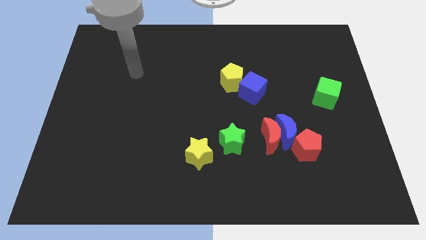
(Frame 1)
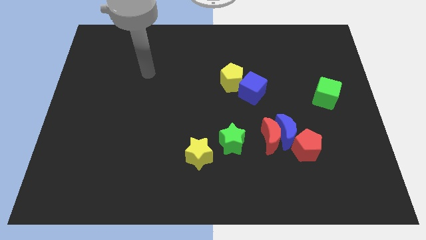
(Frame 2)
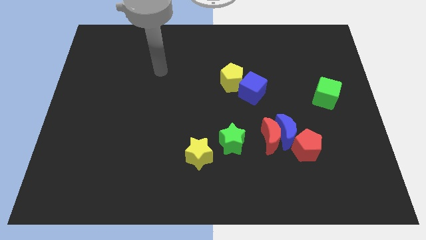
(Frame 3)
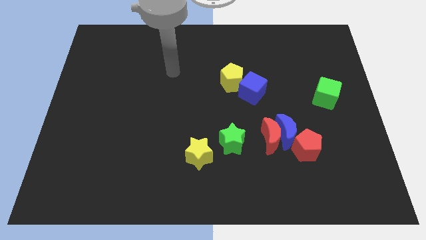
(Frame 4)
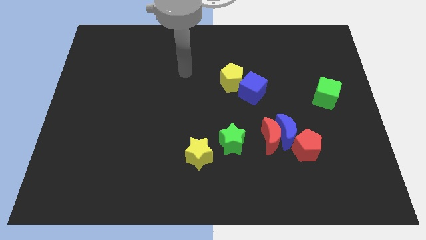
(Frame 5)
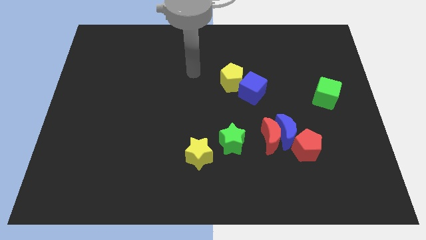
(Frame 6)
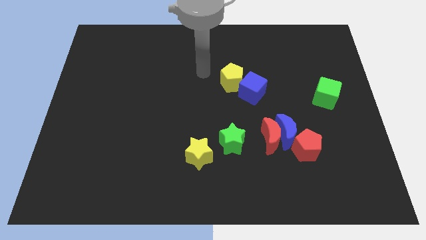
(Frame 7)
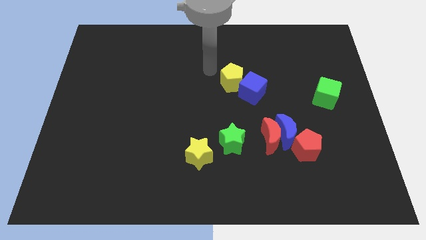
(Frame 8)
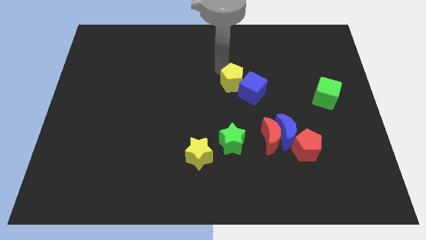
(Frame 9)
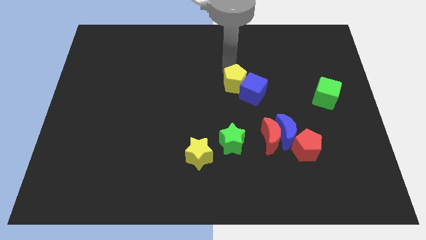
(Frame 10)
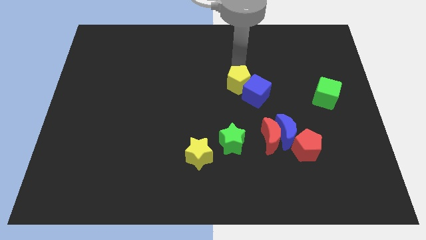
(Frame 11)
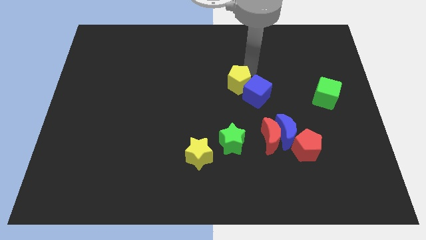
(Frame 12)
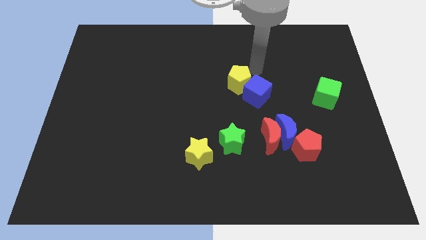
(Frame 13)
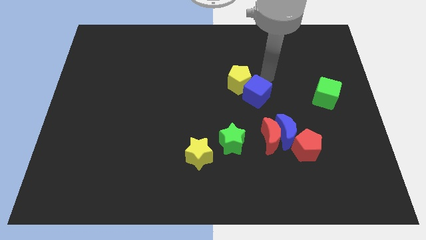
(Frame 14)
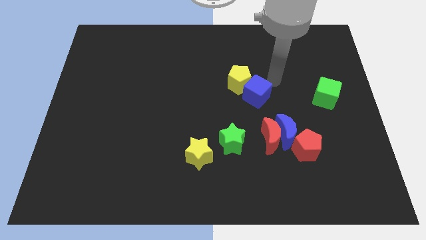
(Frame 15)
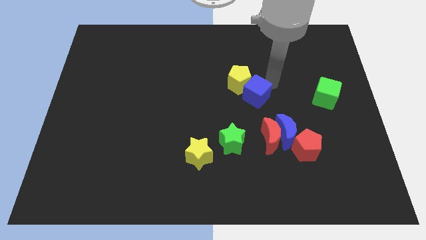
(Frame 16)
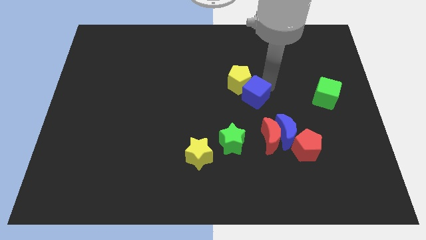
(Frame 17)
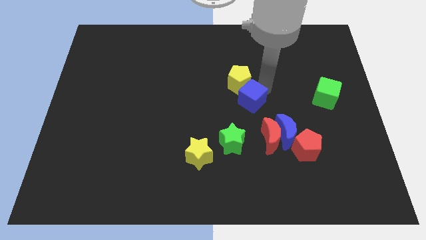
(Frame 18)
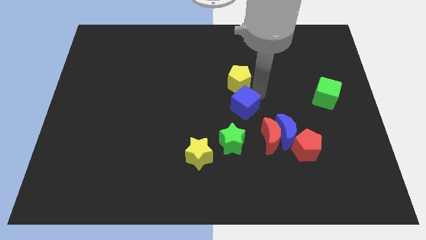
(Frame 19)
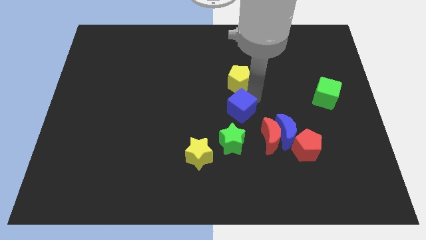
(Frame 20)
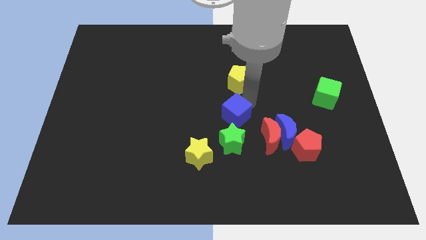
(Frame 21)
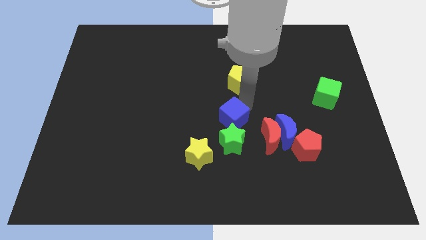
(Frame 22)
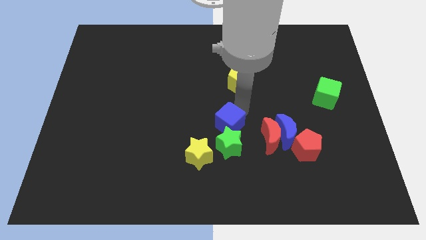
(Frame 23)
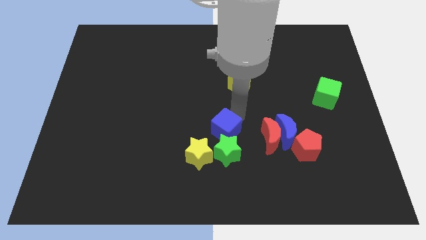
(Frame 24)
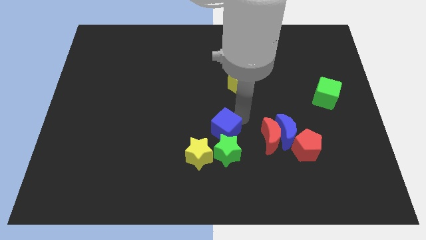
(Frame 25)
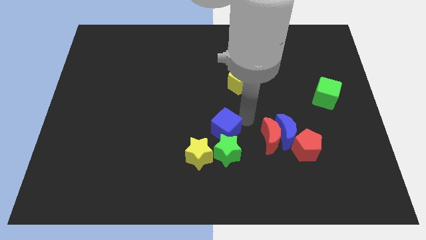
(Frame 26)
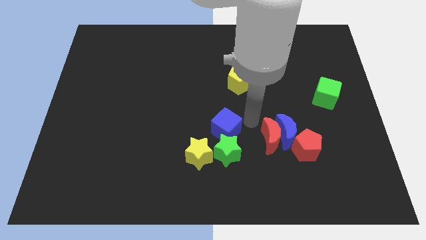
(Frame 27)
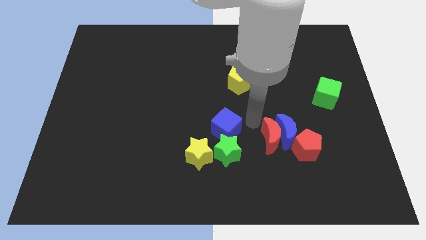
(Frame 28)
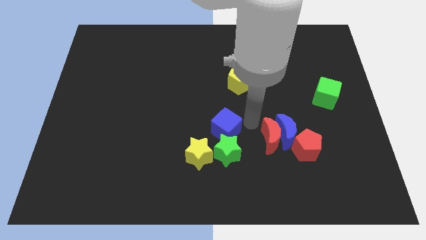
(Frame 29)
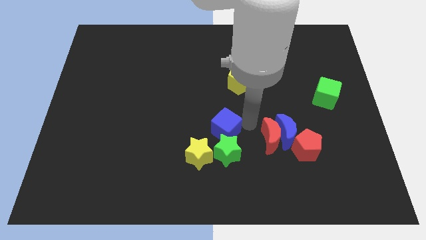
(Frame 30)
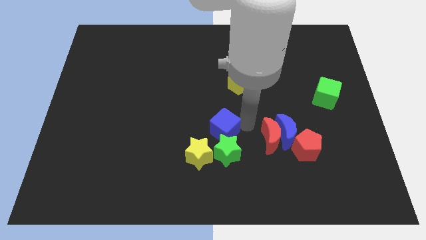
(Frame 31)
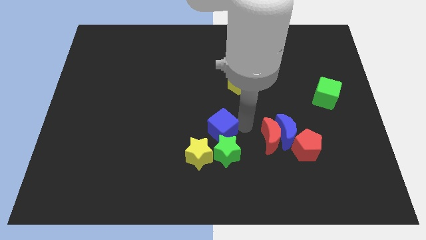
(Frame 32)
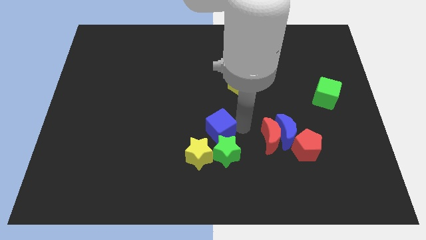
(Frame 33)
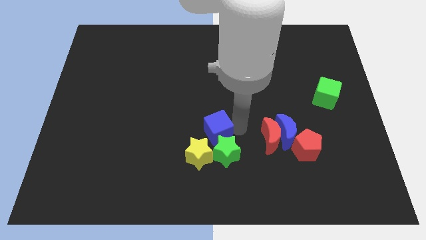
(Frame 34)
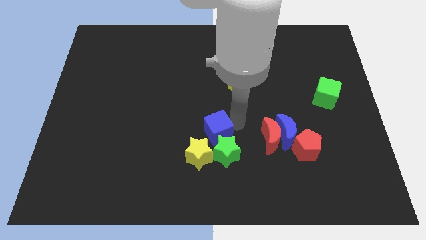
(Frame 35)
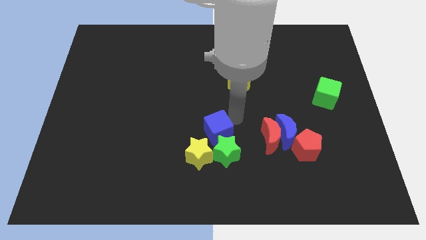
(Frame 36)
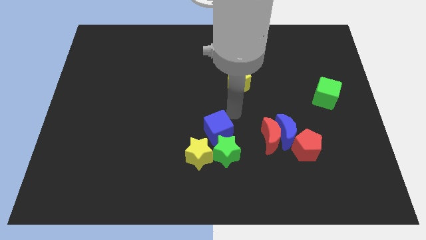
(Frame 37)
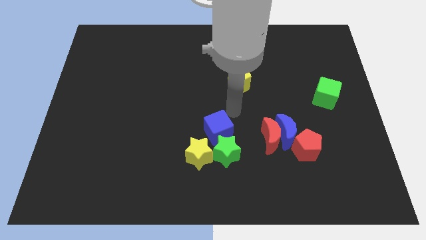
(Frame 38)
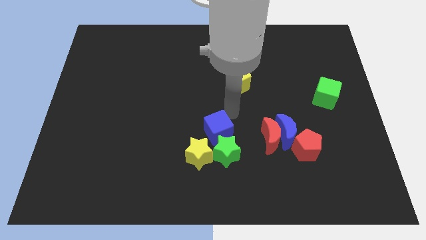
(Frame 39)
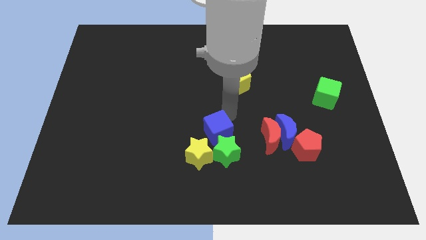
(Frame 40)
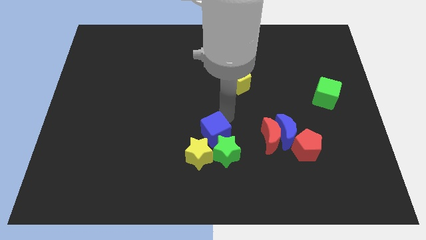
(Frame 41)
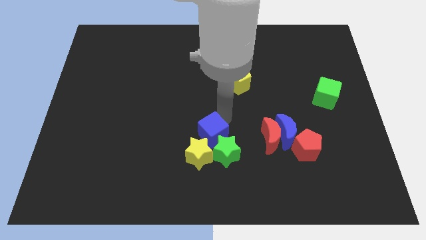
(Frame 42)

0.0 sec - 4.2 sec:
slide the blue cube close to the yellow star

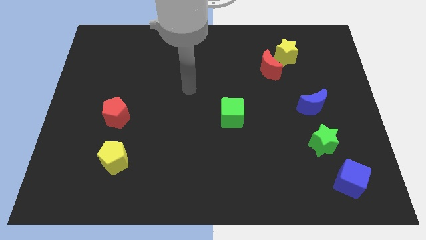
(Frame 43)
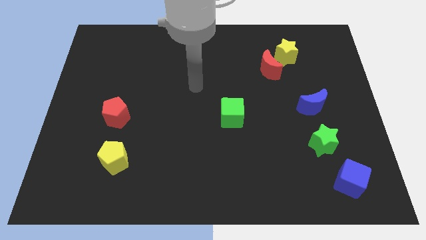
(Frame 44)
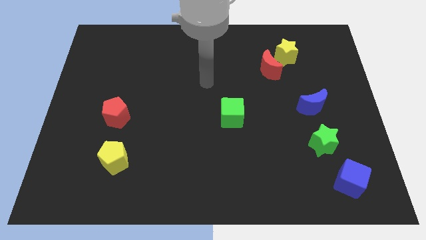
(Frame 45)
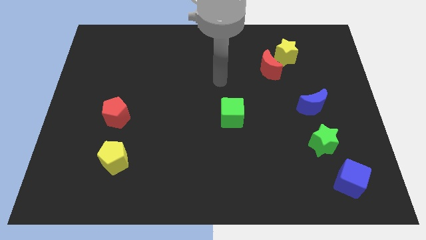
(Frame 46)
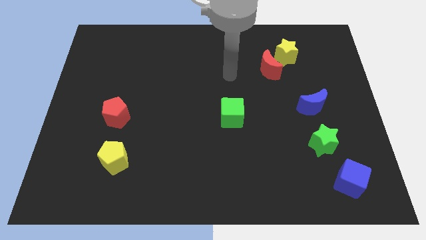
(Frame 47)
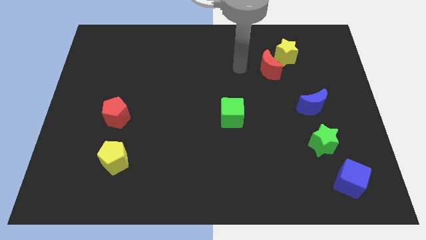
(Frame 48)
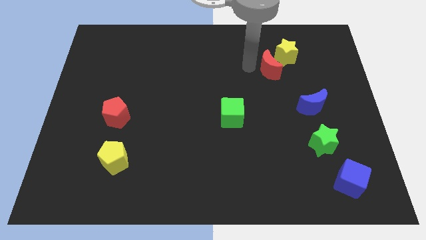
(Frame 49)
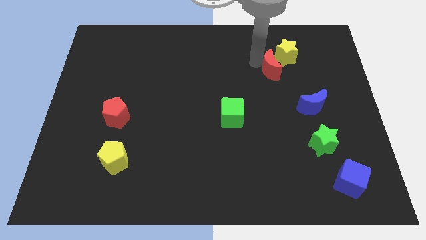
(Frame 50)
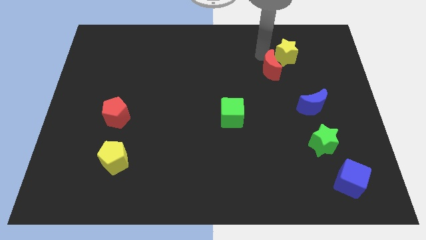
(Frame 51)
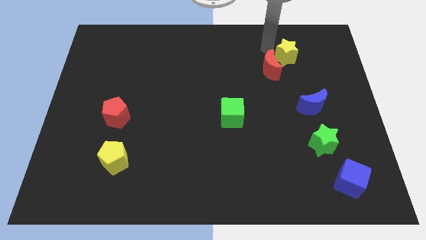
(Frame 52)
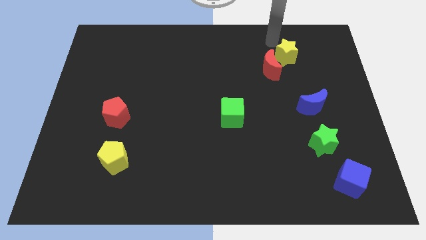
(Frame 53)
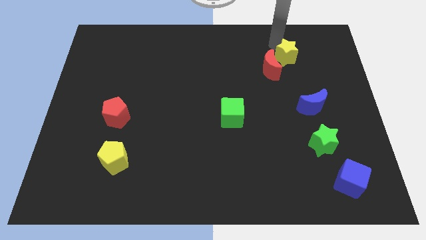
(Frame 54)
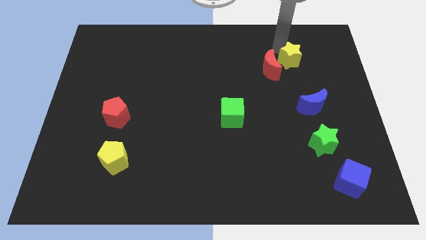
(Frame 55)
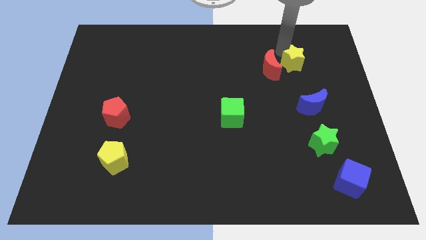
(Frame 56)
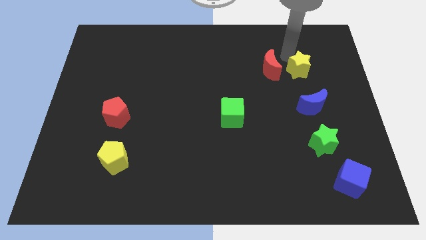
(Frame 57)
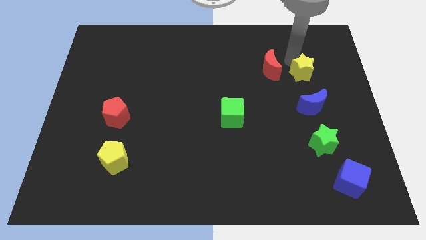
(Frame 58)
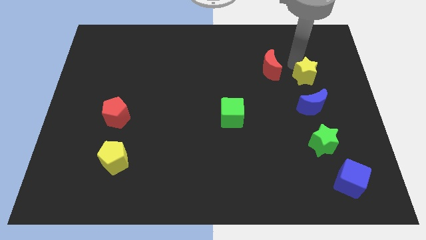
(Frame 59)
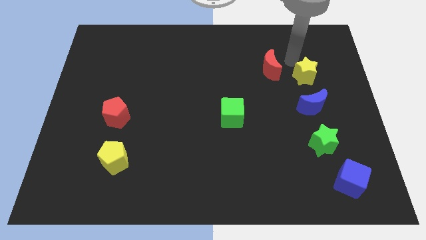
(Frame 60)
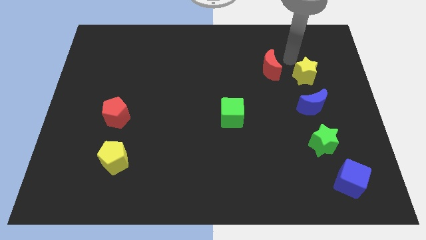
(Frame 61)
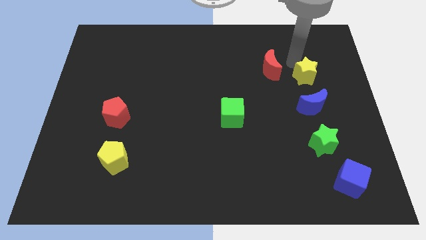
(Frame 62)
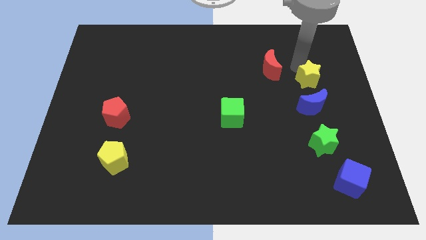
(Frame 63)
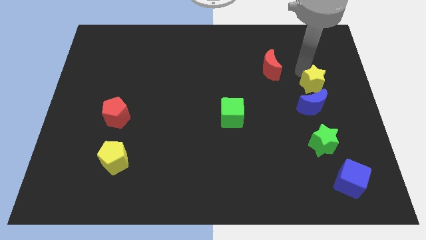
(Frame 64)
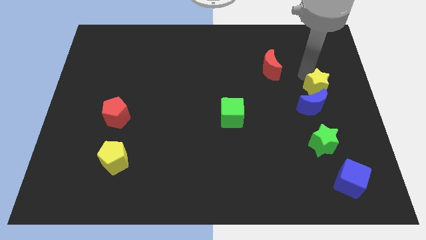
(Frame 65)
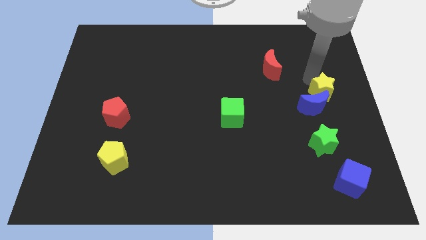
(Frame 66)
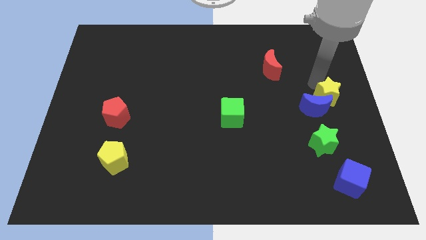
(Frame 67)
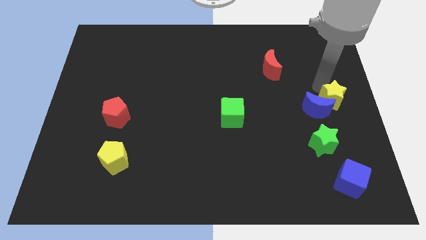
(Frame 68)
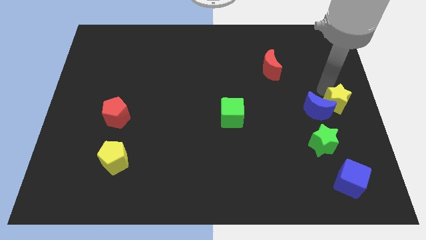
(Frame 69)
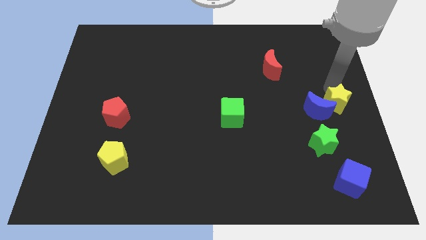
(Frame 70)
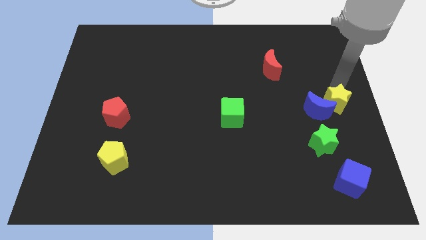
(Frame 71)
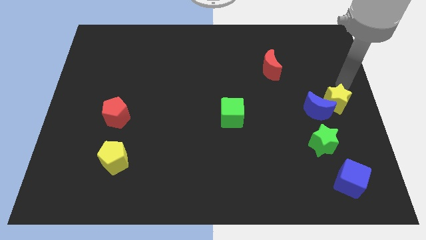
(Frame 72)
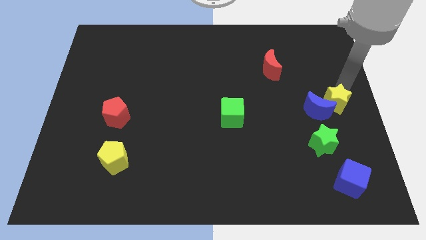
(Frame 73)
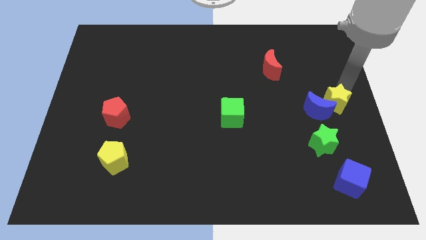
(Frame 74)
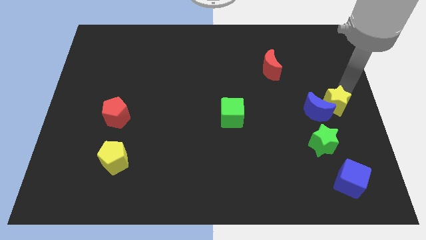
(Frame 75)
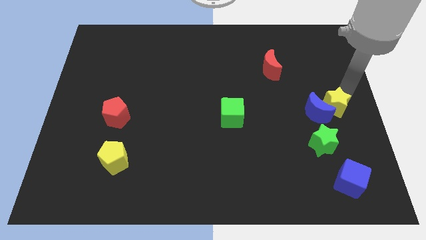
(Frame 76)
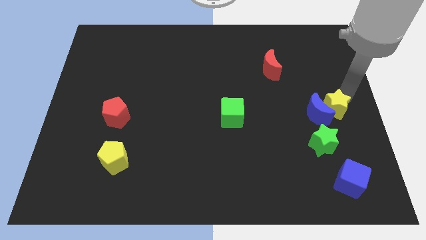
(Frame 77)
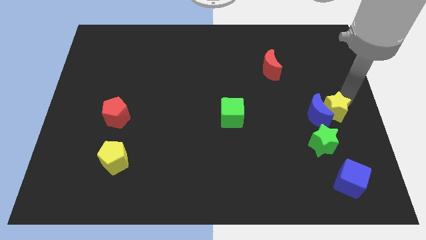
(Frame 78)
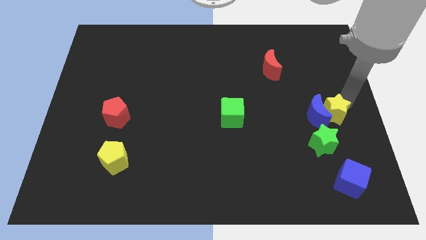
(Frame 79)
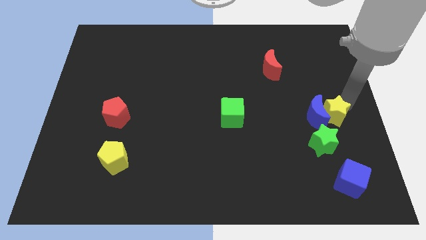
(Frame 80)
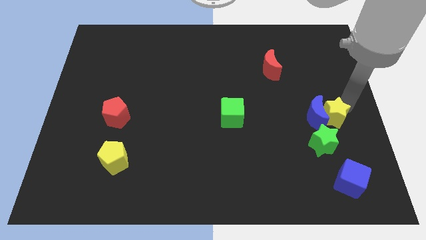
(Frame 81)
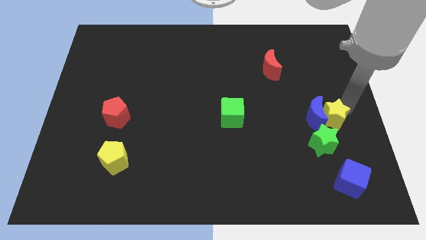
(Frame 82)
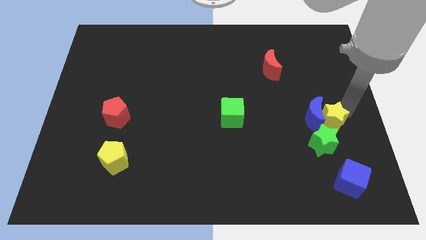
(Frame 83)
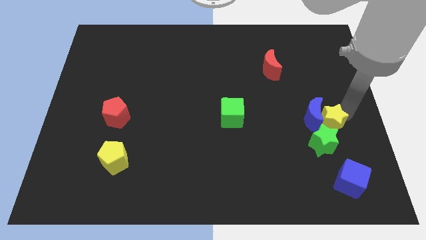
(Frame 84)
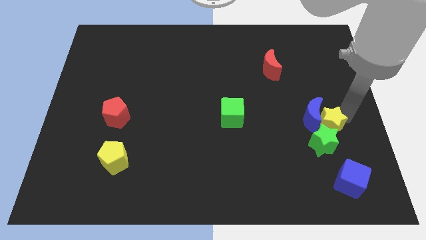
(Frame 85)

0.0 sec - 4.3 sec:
slide the yellow star towards the green star
